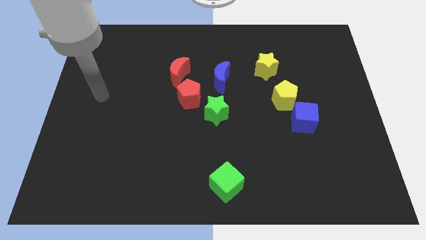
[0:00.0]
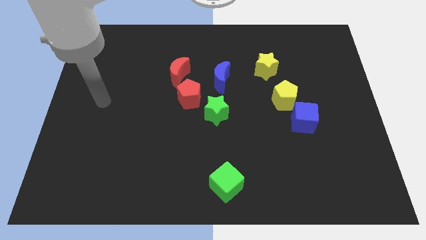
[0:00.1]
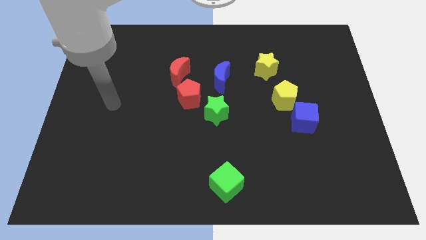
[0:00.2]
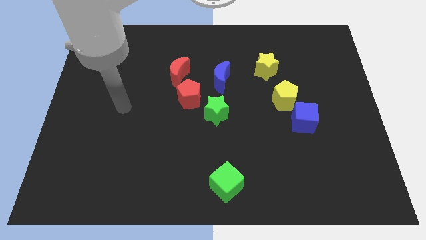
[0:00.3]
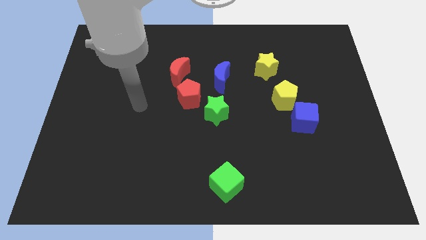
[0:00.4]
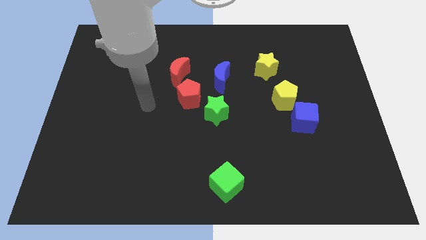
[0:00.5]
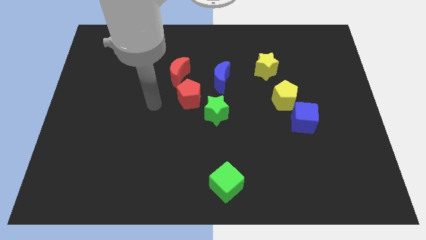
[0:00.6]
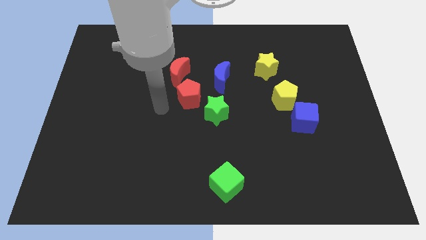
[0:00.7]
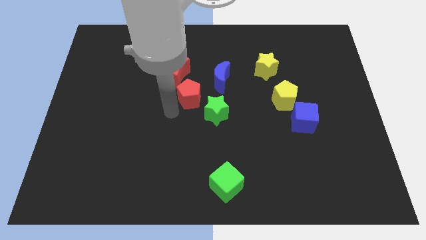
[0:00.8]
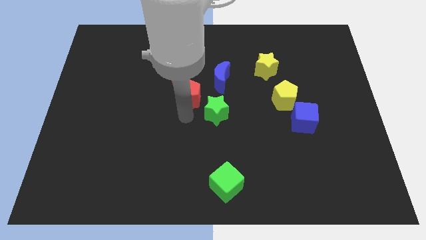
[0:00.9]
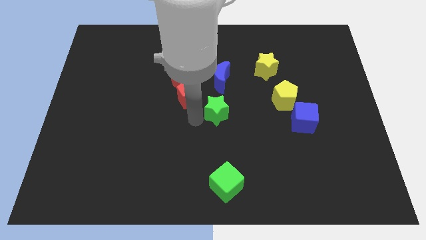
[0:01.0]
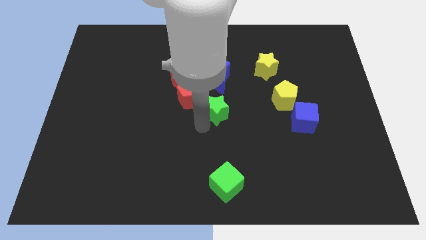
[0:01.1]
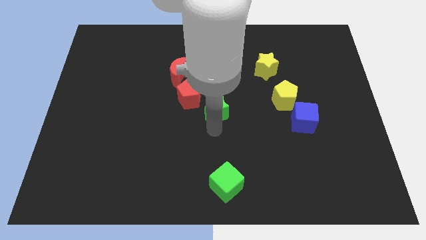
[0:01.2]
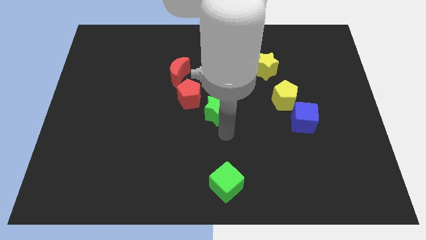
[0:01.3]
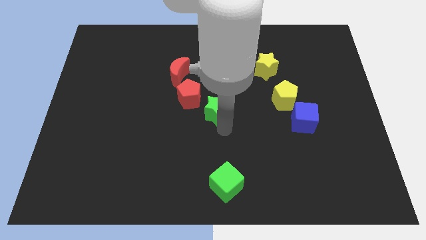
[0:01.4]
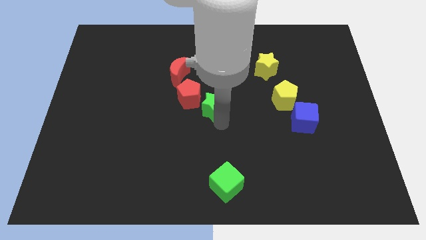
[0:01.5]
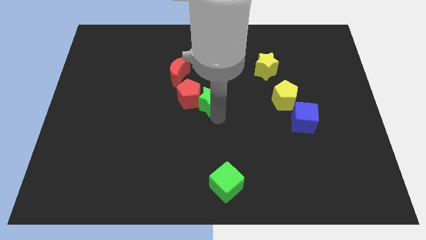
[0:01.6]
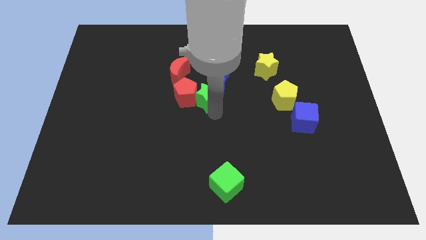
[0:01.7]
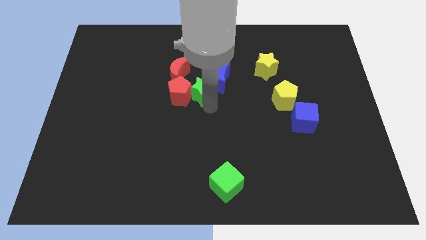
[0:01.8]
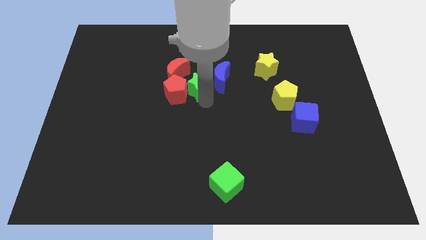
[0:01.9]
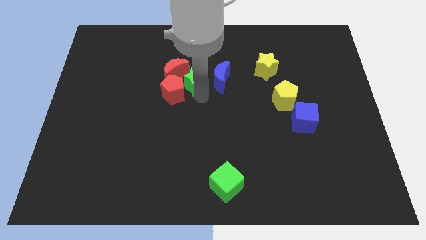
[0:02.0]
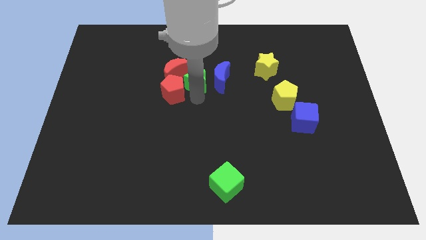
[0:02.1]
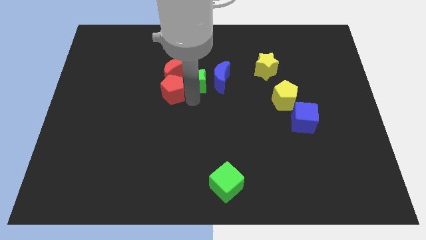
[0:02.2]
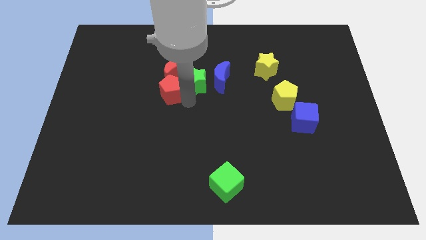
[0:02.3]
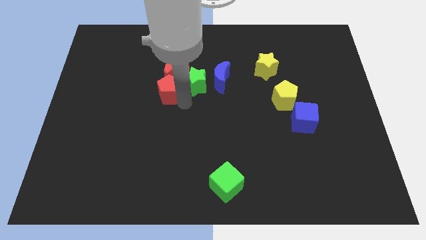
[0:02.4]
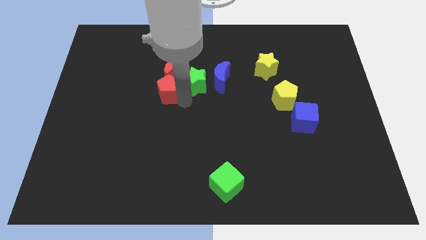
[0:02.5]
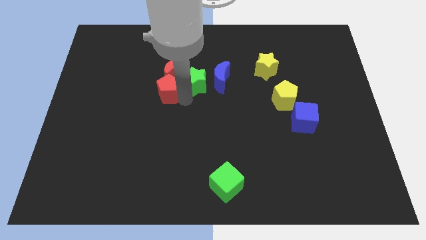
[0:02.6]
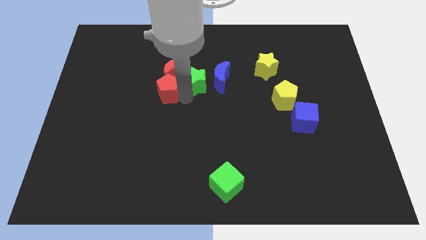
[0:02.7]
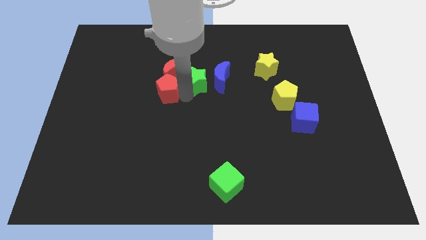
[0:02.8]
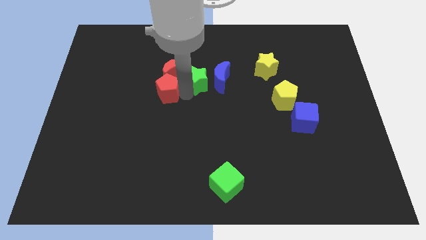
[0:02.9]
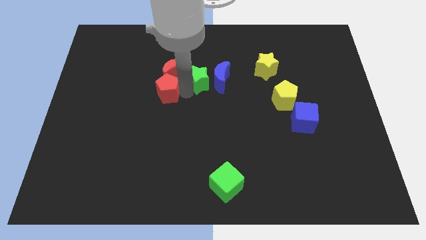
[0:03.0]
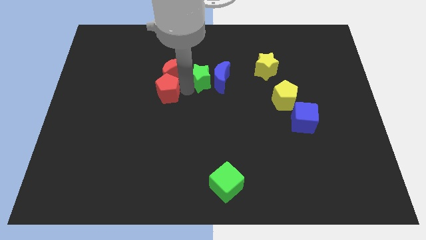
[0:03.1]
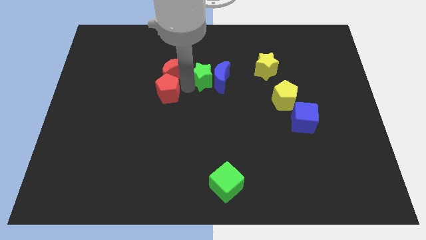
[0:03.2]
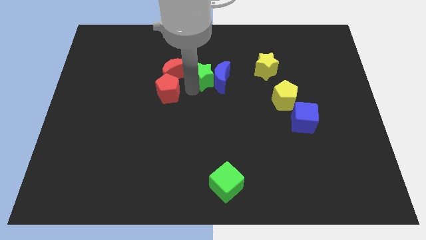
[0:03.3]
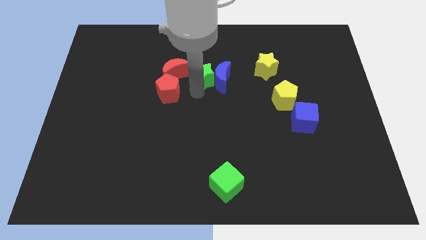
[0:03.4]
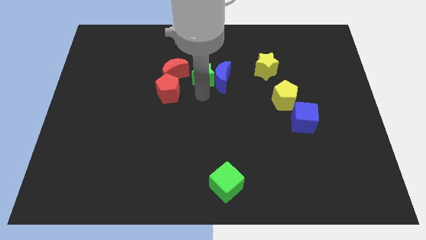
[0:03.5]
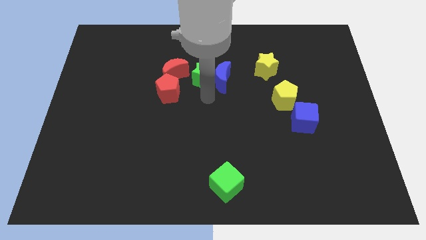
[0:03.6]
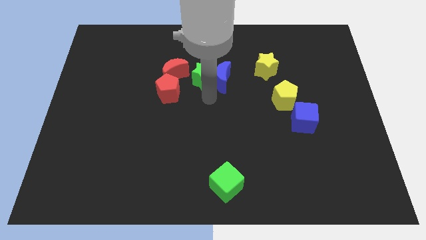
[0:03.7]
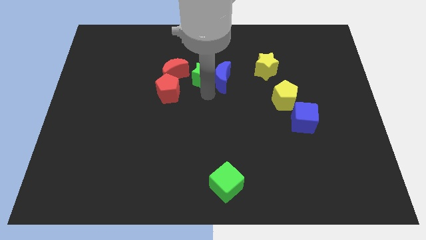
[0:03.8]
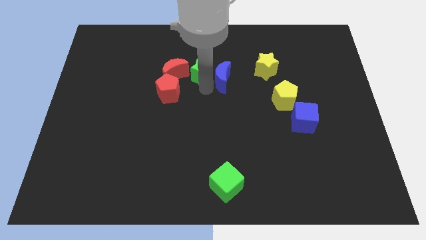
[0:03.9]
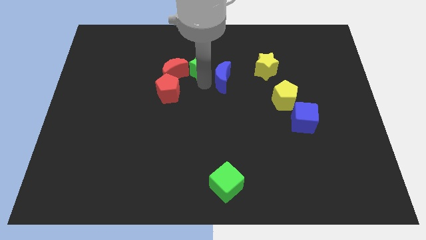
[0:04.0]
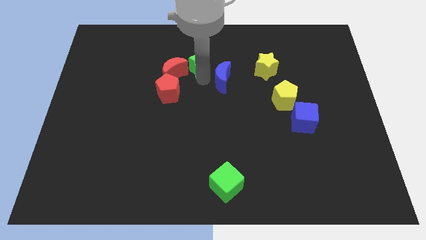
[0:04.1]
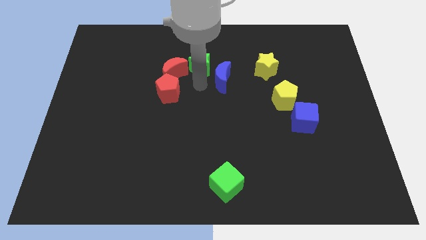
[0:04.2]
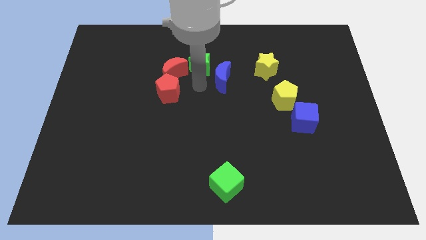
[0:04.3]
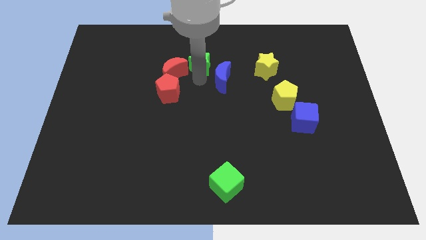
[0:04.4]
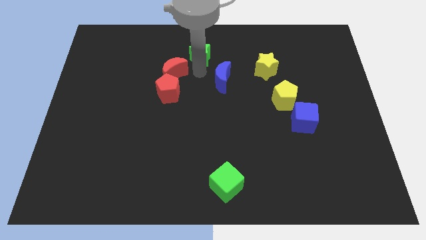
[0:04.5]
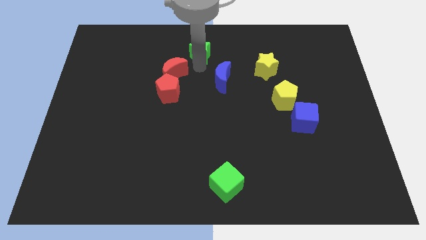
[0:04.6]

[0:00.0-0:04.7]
put the green star to the top

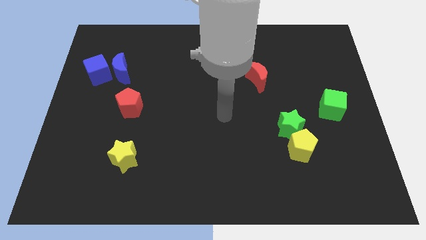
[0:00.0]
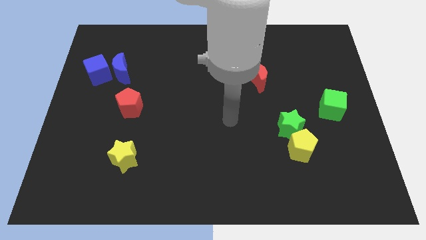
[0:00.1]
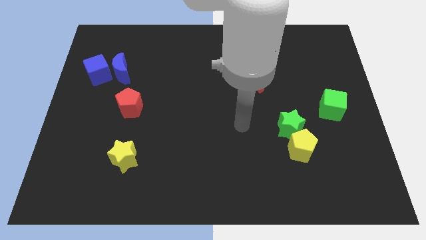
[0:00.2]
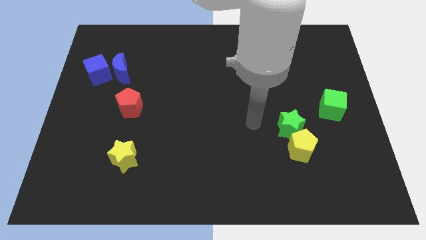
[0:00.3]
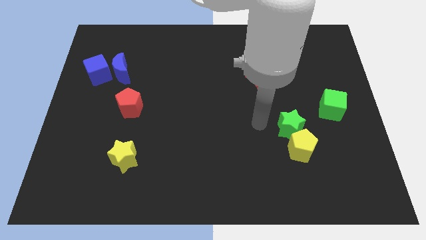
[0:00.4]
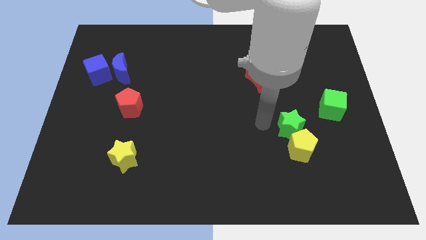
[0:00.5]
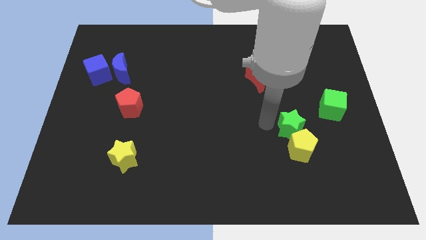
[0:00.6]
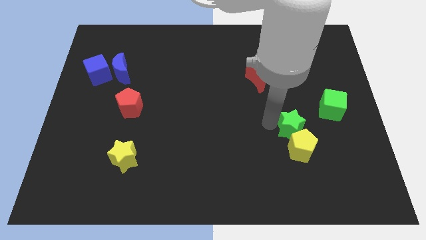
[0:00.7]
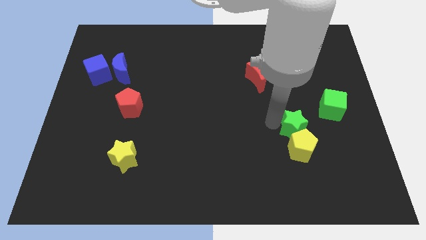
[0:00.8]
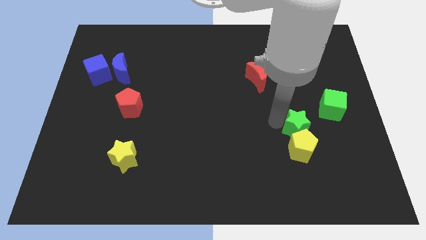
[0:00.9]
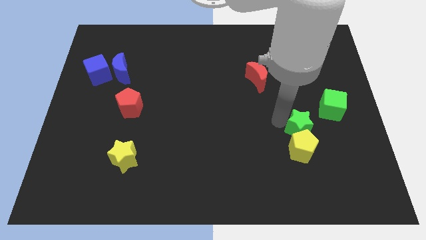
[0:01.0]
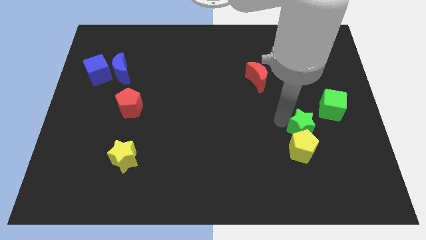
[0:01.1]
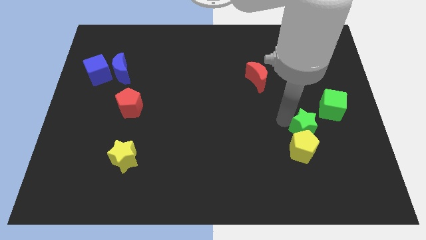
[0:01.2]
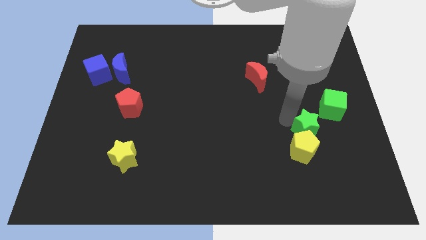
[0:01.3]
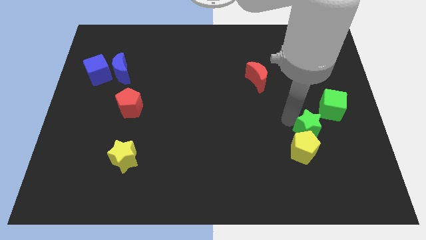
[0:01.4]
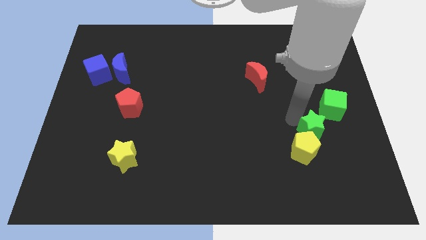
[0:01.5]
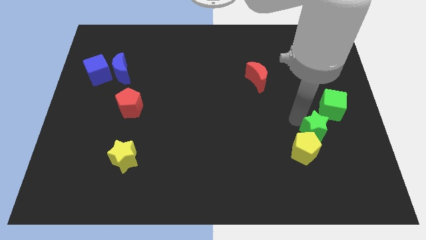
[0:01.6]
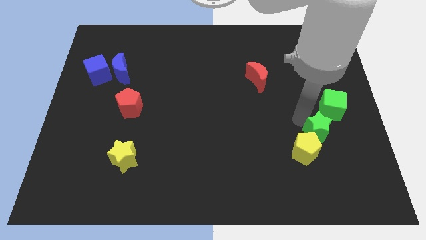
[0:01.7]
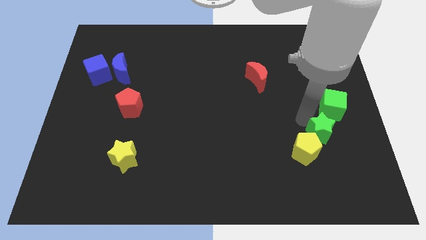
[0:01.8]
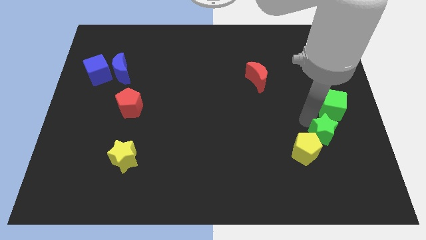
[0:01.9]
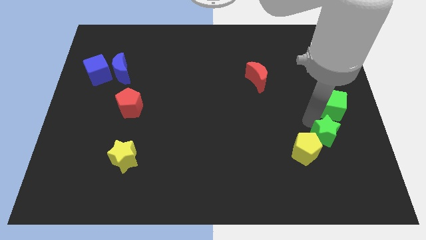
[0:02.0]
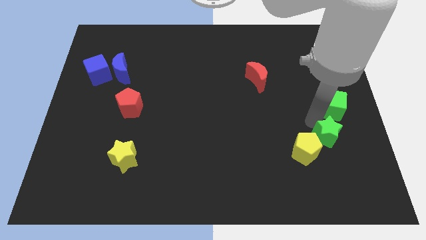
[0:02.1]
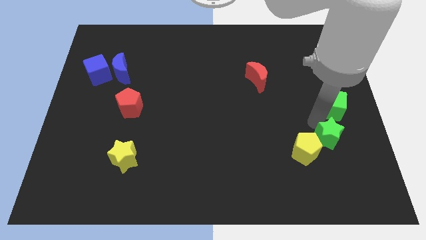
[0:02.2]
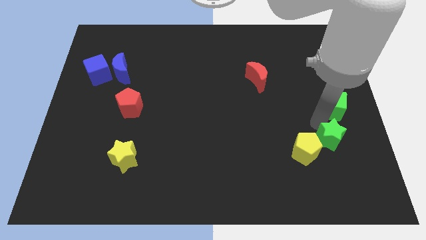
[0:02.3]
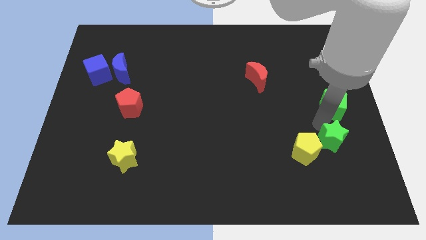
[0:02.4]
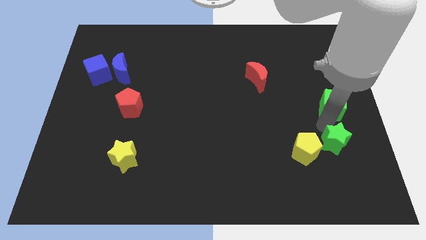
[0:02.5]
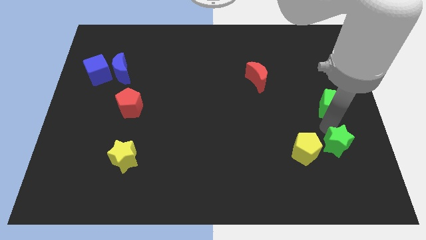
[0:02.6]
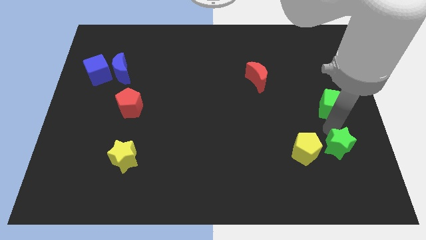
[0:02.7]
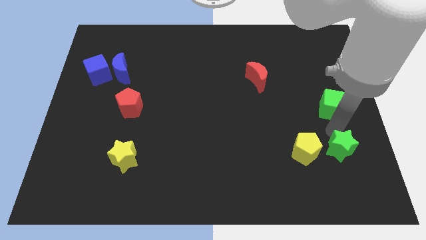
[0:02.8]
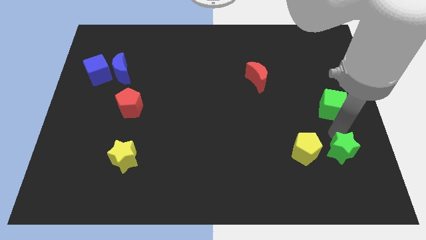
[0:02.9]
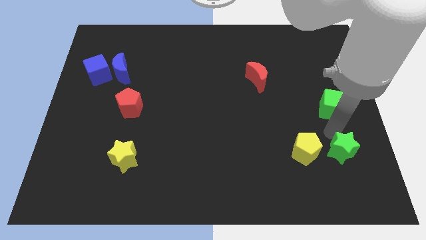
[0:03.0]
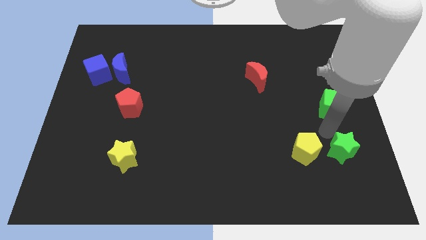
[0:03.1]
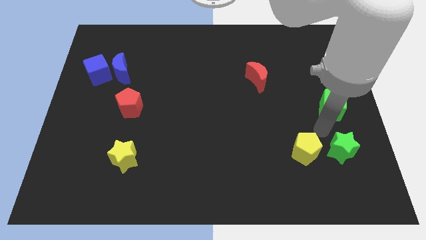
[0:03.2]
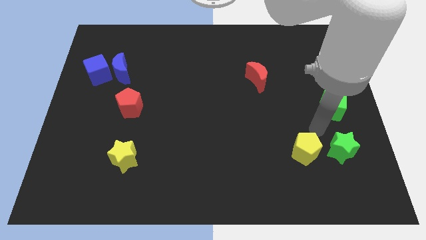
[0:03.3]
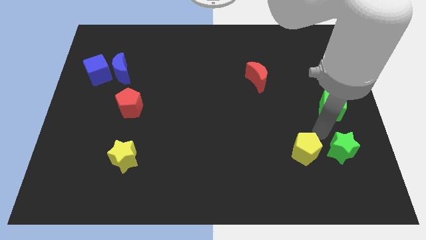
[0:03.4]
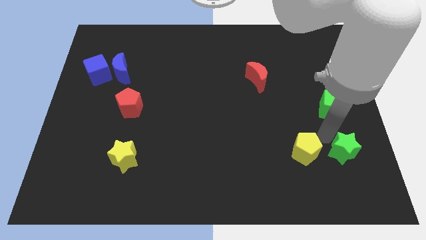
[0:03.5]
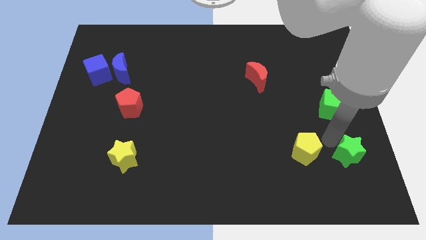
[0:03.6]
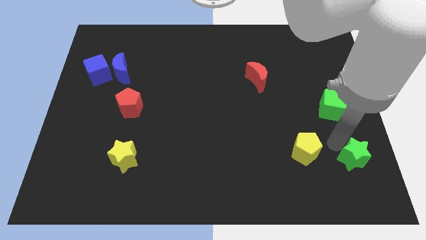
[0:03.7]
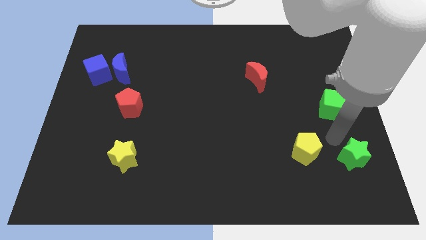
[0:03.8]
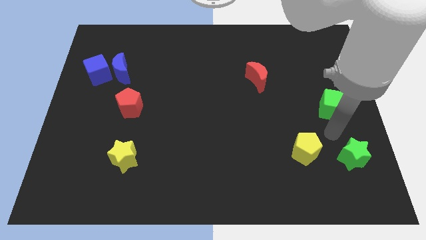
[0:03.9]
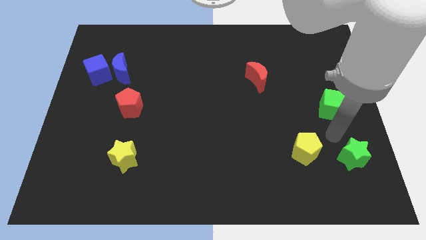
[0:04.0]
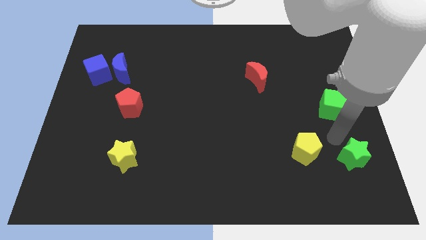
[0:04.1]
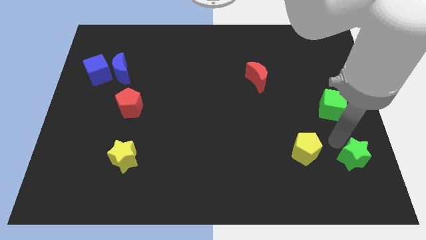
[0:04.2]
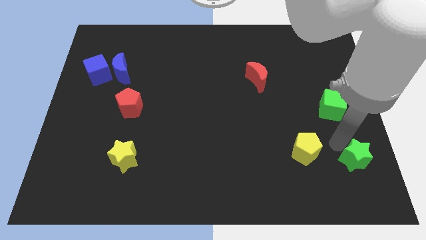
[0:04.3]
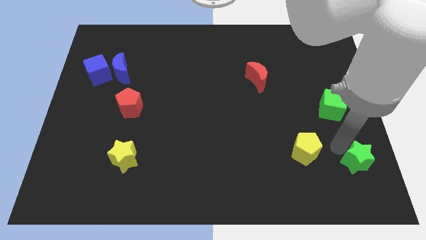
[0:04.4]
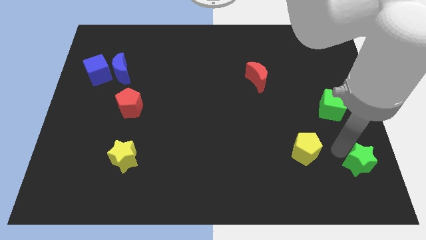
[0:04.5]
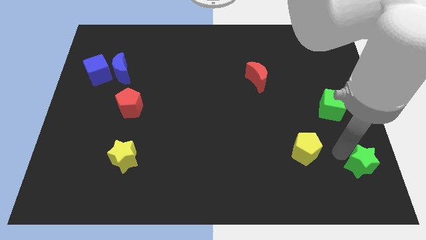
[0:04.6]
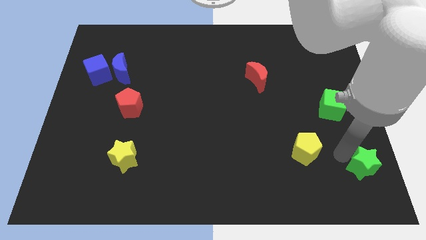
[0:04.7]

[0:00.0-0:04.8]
move the green star to the lower right corner
